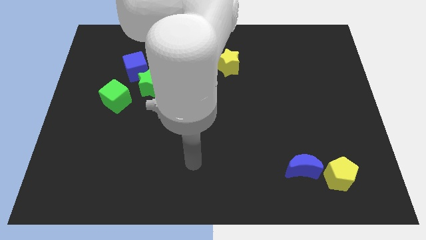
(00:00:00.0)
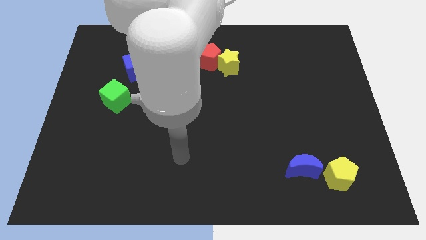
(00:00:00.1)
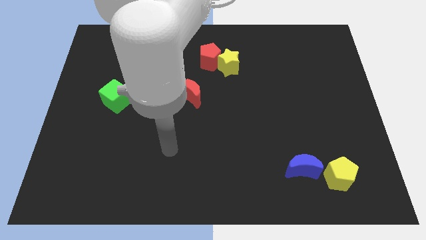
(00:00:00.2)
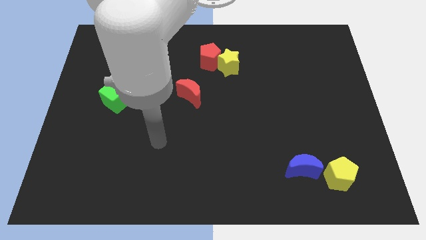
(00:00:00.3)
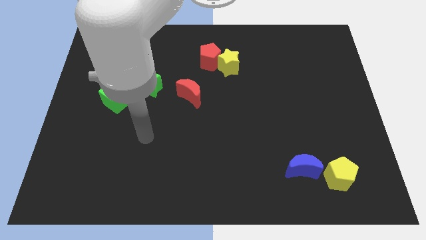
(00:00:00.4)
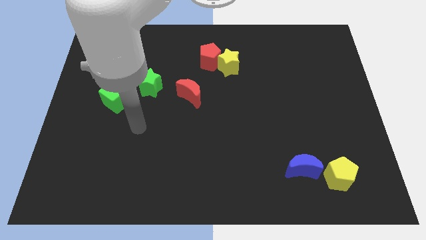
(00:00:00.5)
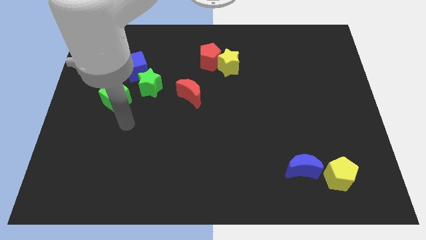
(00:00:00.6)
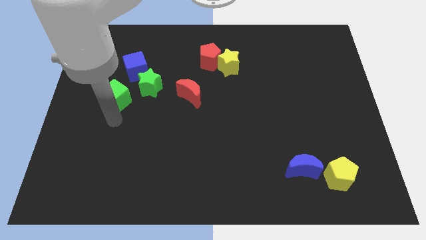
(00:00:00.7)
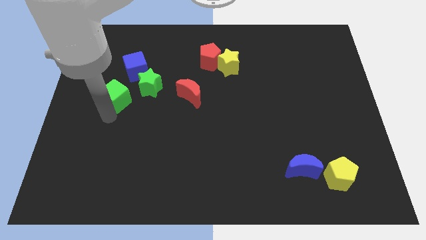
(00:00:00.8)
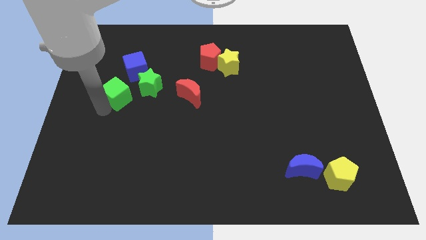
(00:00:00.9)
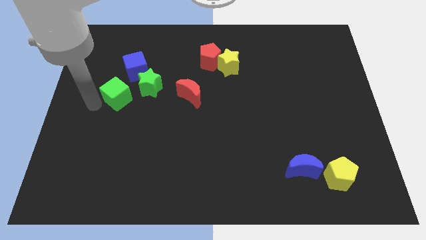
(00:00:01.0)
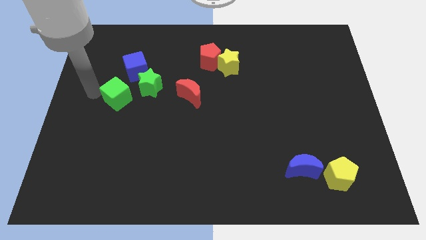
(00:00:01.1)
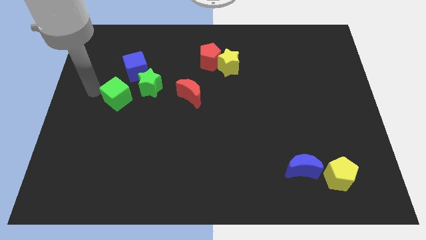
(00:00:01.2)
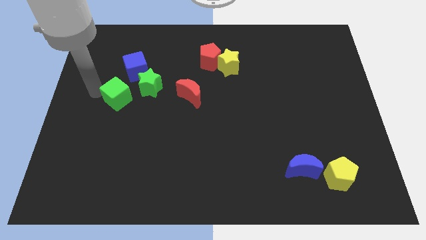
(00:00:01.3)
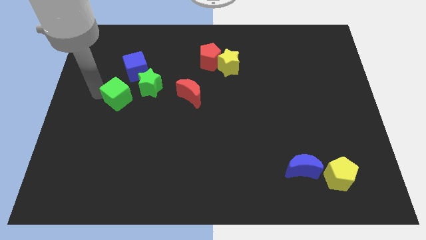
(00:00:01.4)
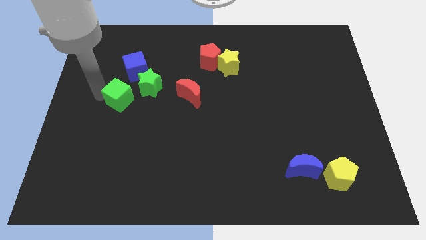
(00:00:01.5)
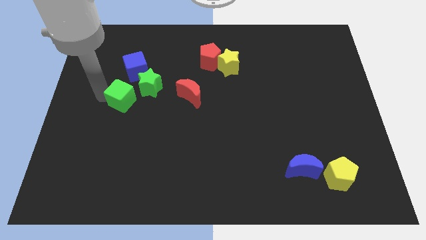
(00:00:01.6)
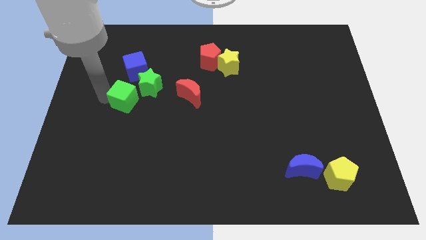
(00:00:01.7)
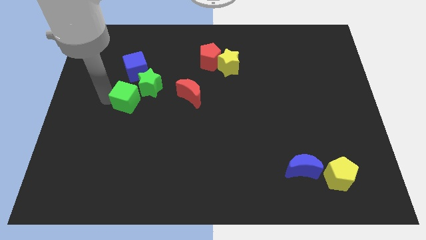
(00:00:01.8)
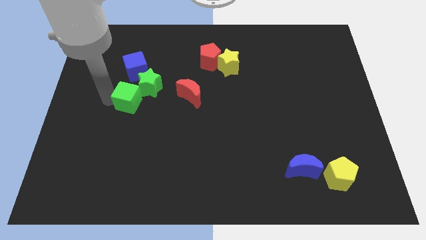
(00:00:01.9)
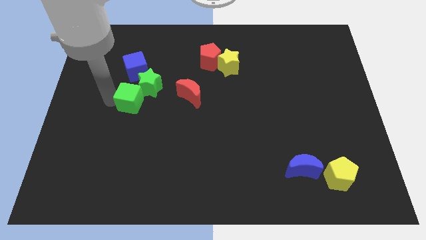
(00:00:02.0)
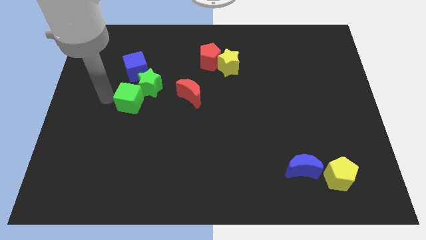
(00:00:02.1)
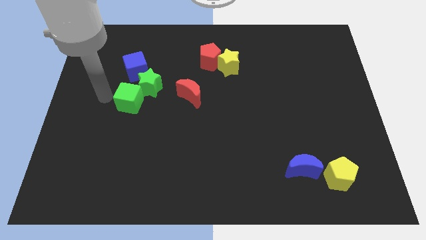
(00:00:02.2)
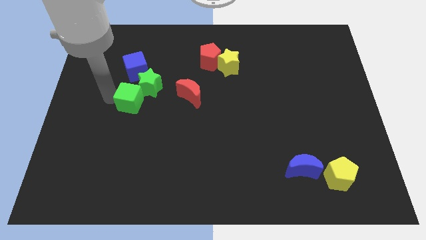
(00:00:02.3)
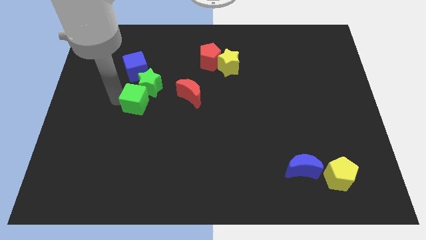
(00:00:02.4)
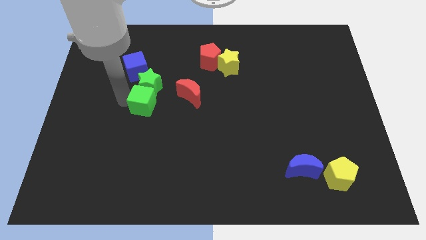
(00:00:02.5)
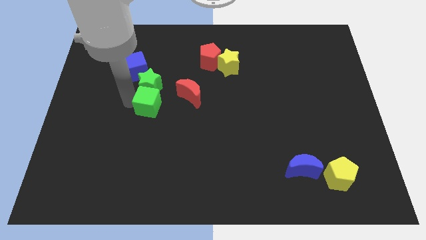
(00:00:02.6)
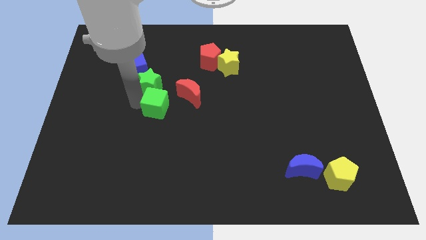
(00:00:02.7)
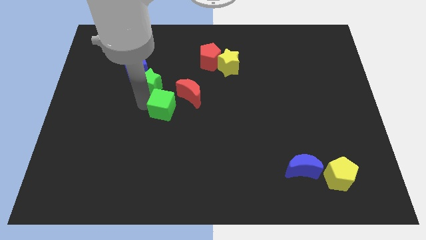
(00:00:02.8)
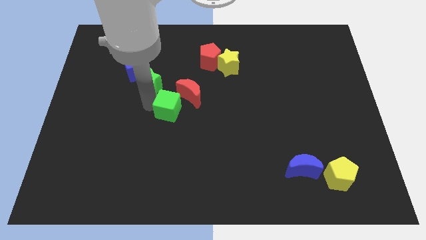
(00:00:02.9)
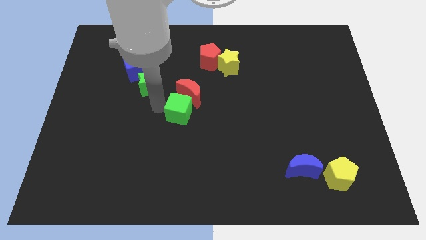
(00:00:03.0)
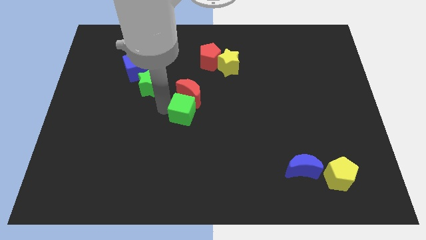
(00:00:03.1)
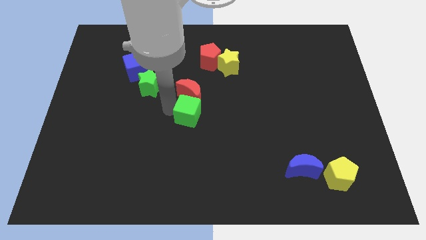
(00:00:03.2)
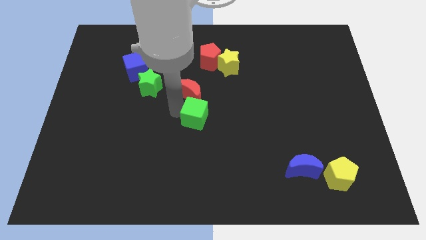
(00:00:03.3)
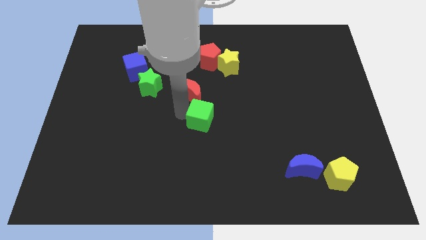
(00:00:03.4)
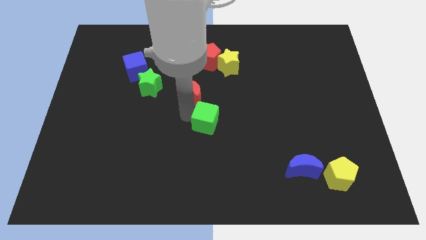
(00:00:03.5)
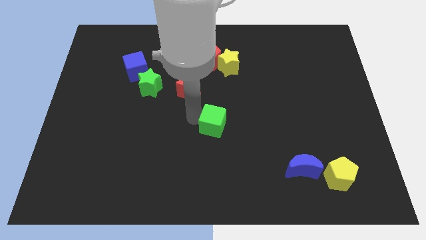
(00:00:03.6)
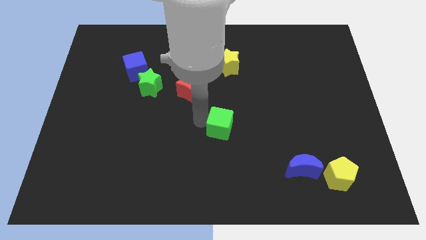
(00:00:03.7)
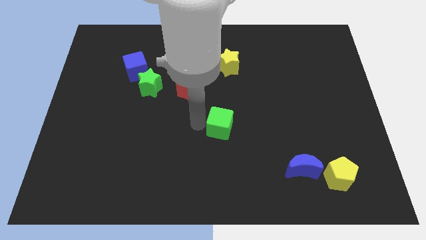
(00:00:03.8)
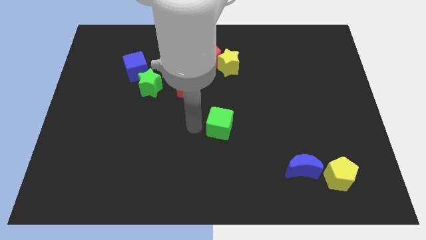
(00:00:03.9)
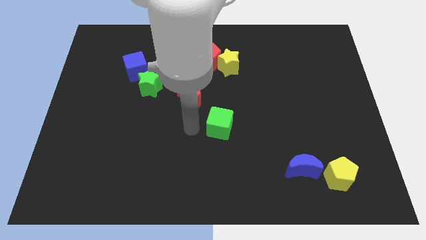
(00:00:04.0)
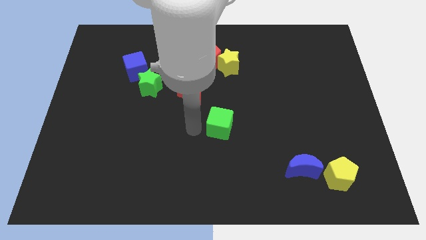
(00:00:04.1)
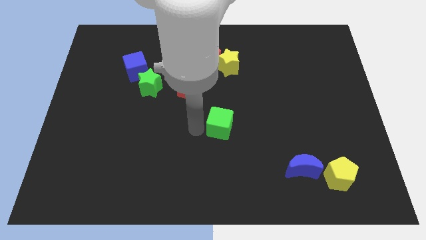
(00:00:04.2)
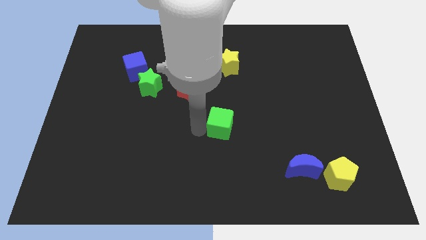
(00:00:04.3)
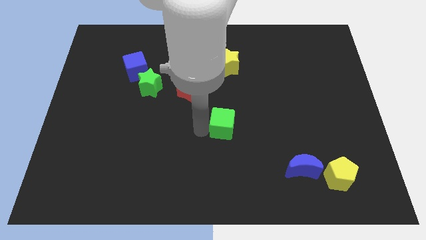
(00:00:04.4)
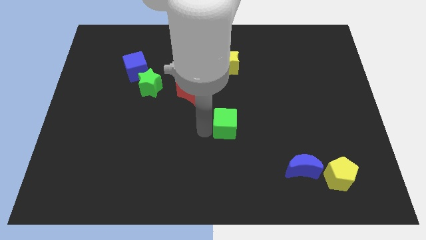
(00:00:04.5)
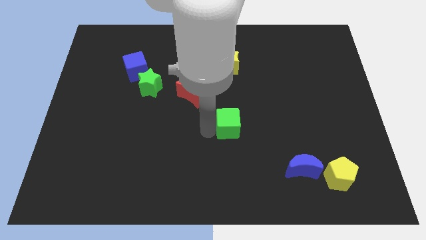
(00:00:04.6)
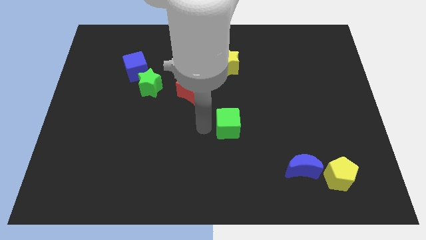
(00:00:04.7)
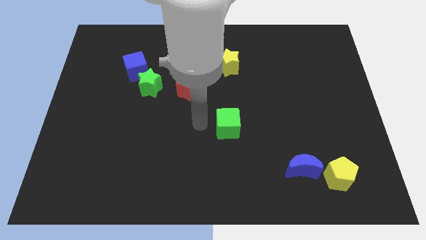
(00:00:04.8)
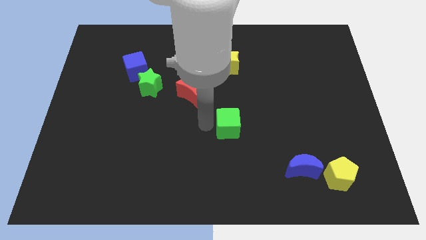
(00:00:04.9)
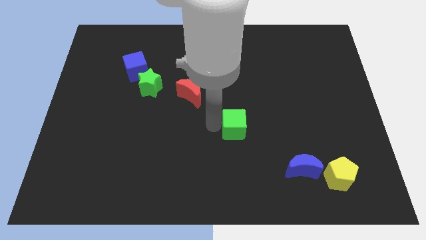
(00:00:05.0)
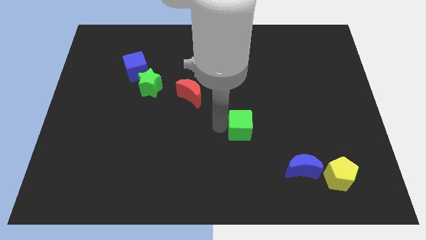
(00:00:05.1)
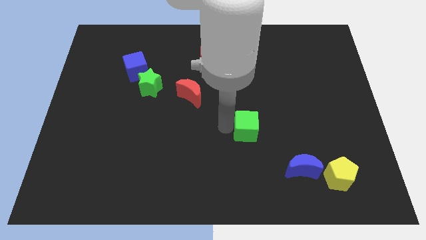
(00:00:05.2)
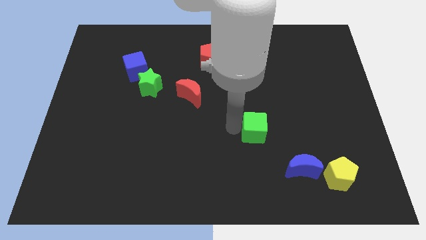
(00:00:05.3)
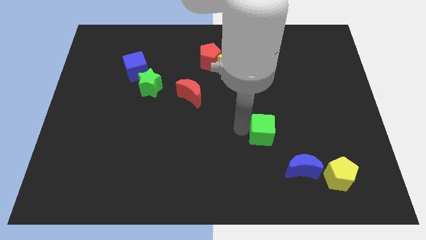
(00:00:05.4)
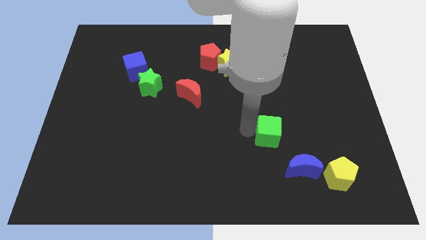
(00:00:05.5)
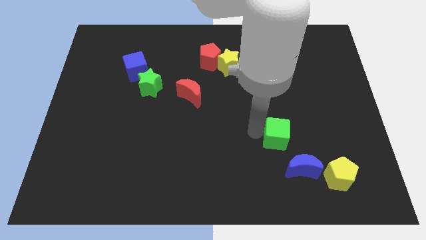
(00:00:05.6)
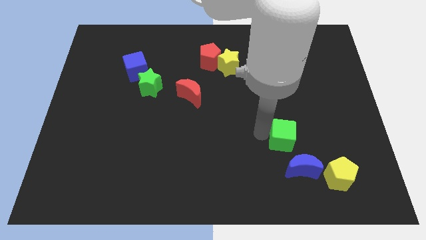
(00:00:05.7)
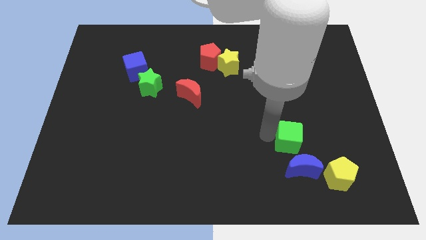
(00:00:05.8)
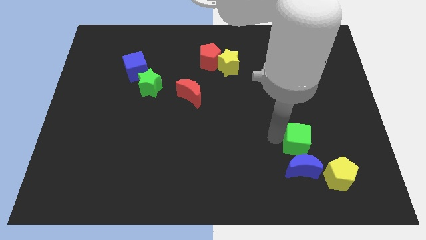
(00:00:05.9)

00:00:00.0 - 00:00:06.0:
put the green cube to the top right of the blue moon
